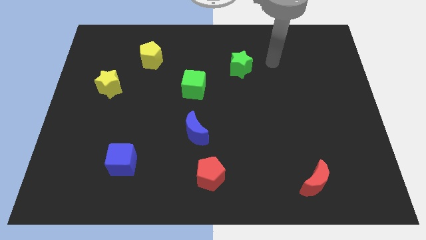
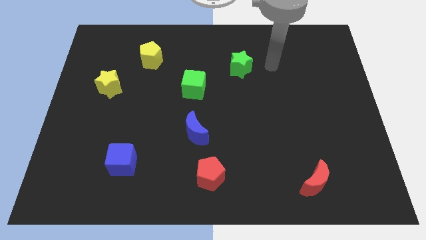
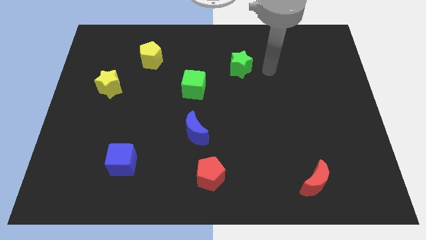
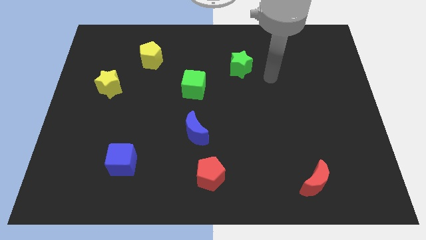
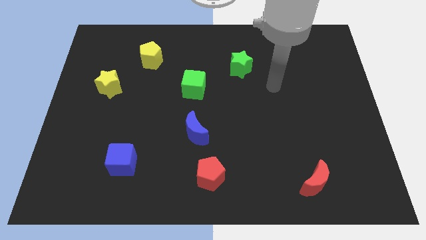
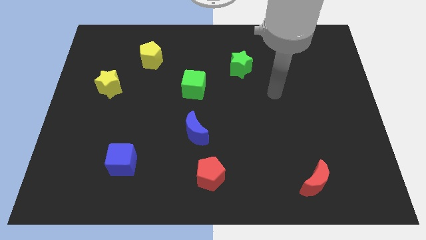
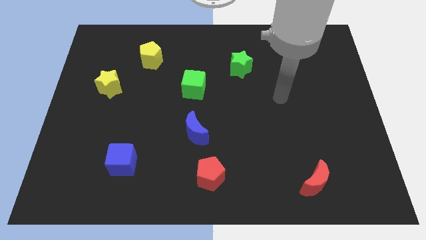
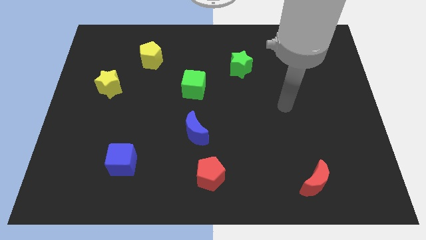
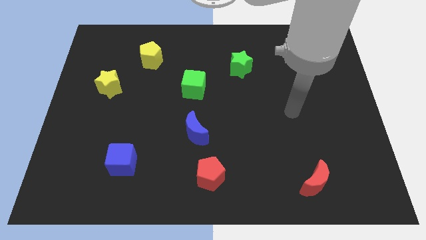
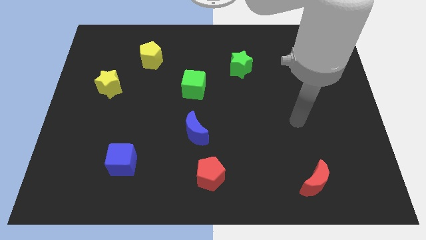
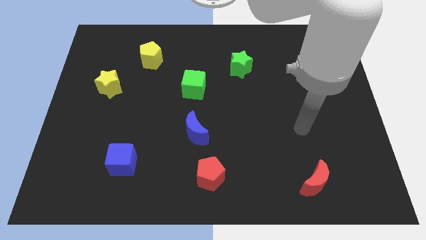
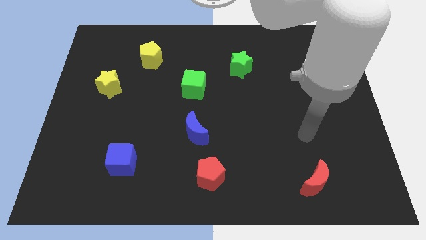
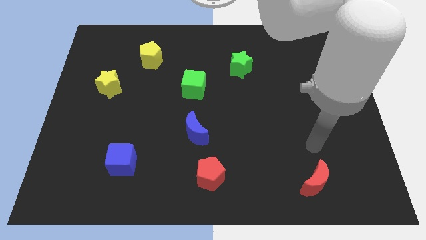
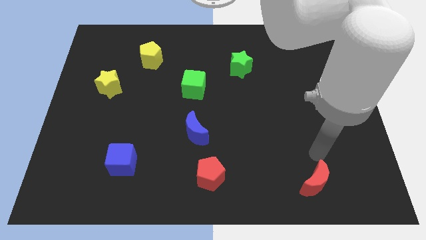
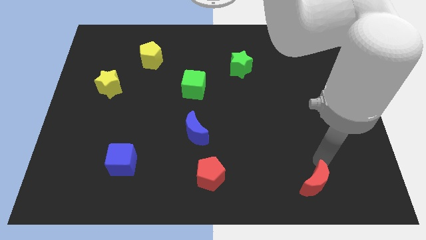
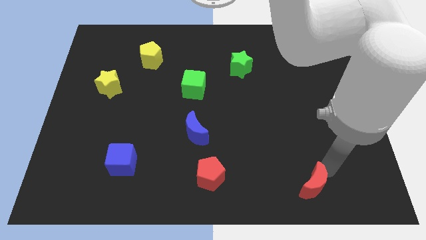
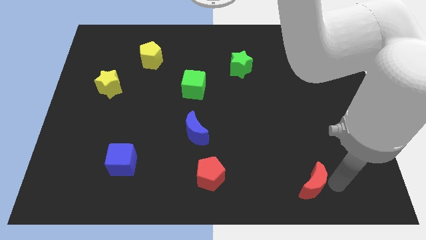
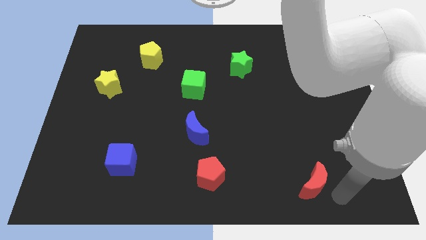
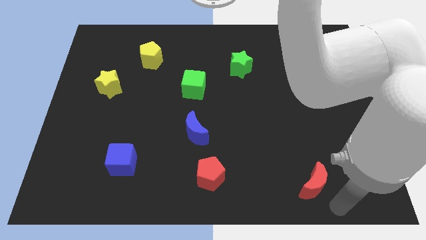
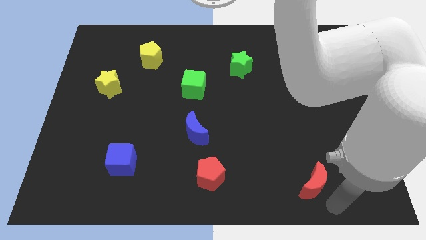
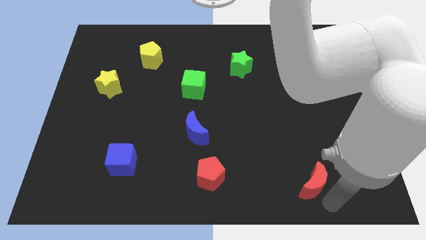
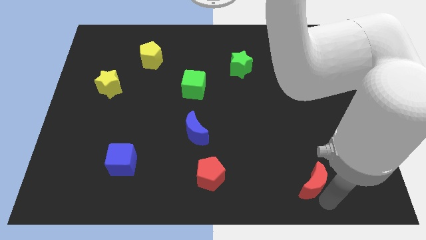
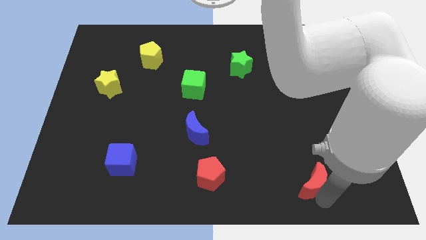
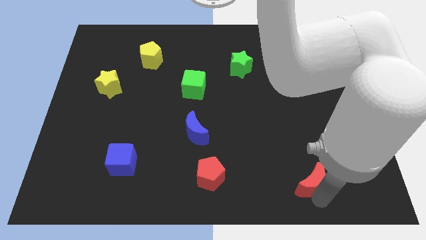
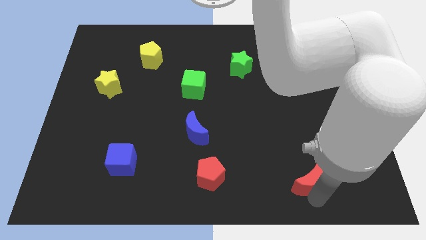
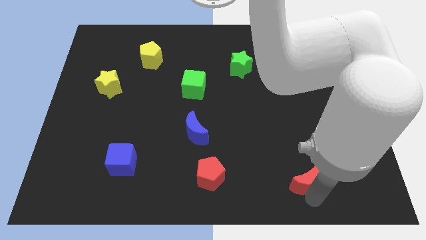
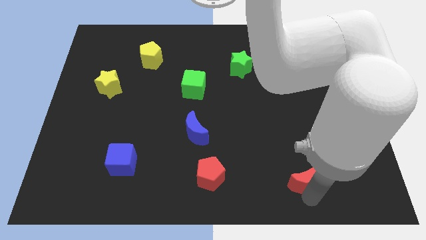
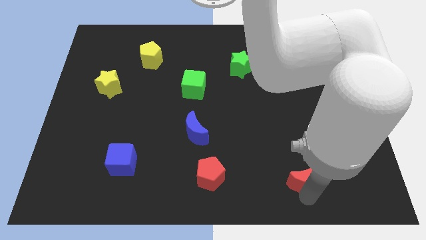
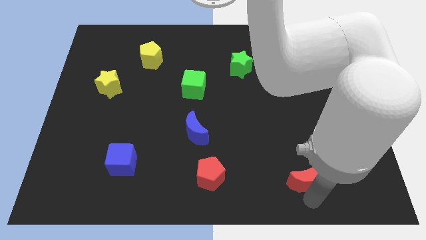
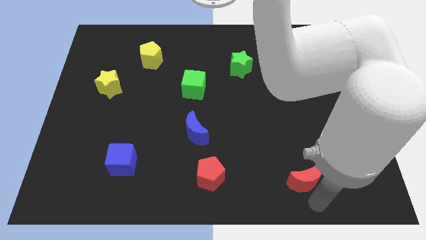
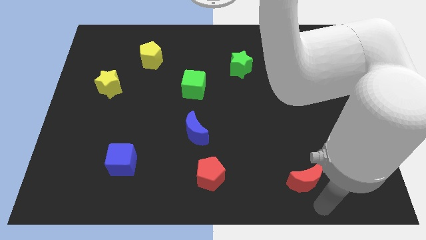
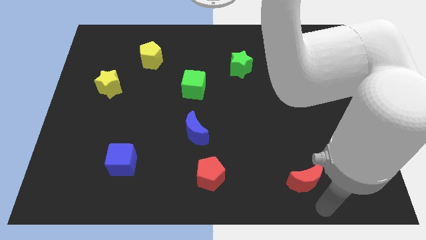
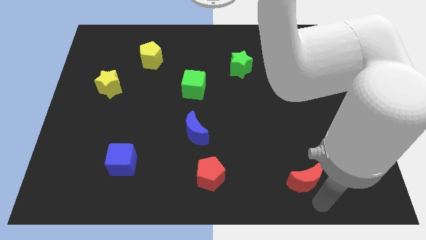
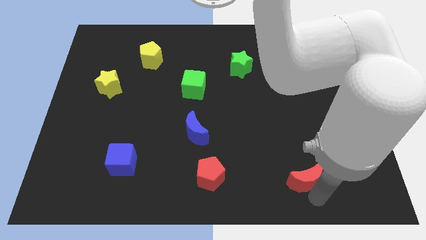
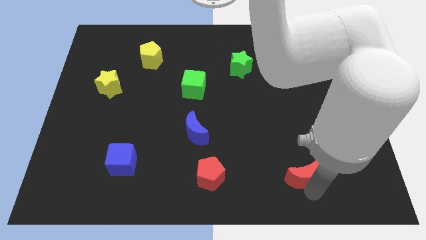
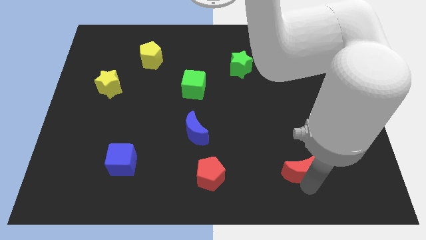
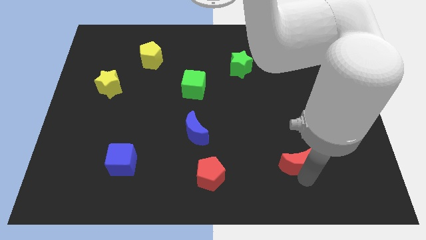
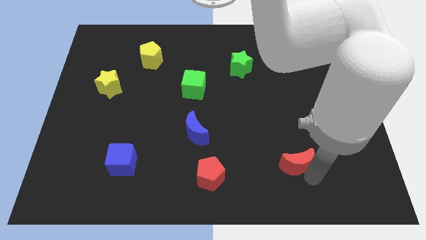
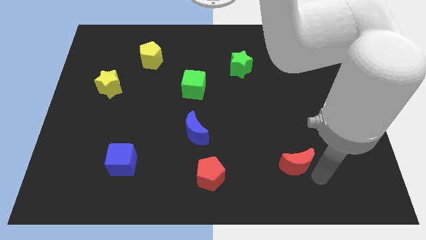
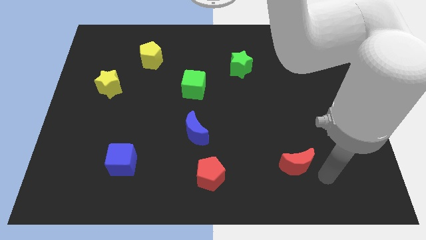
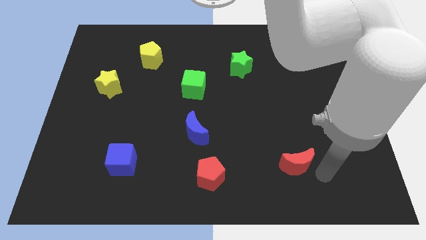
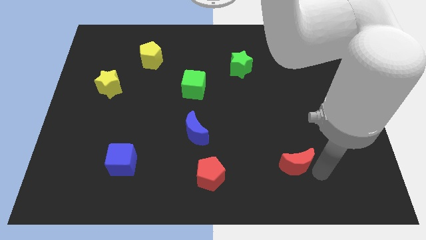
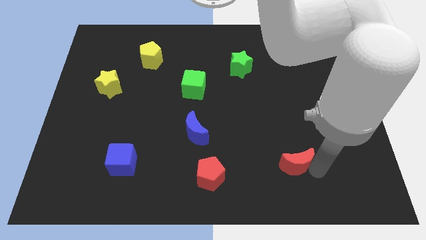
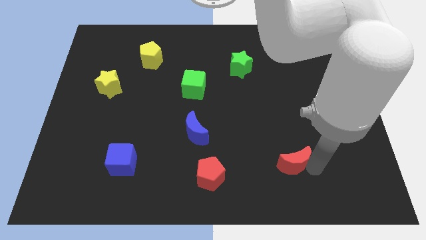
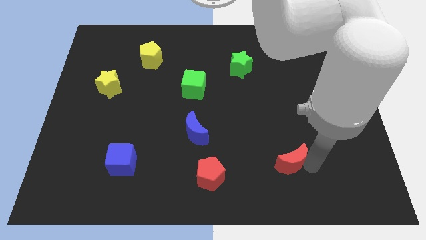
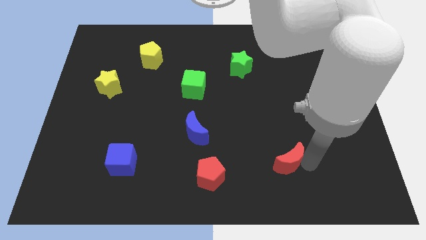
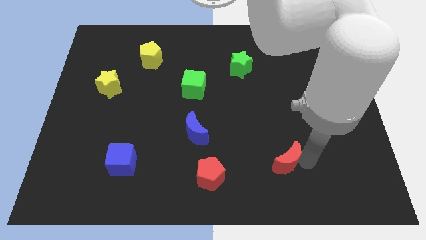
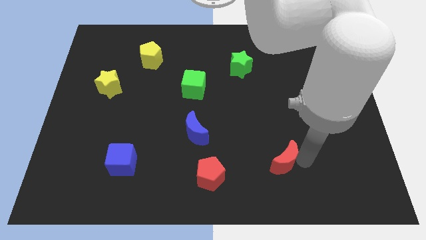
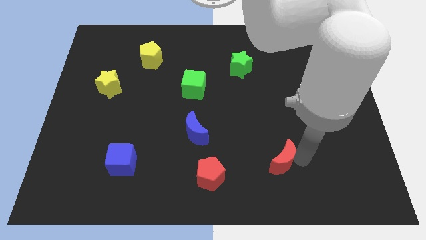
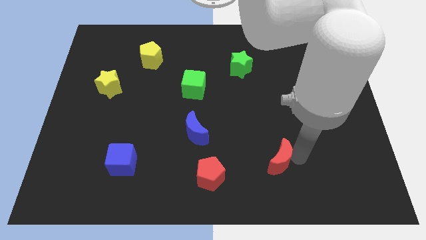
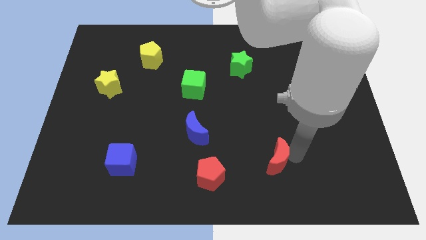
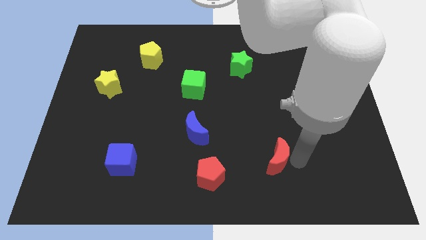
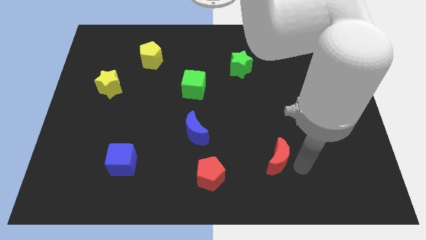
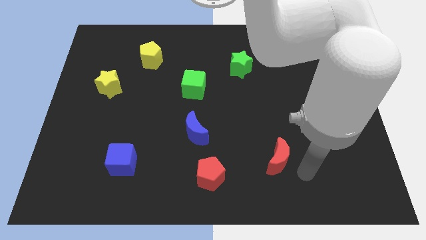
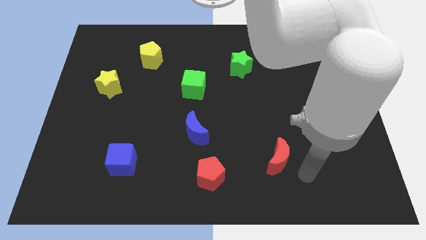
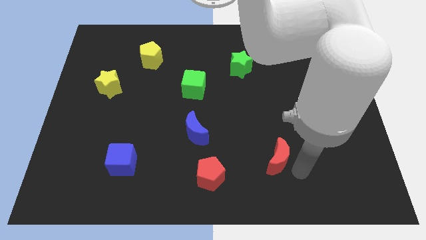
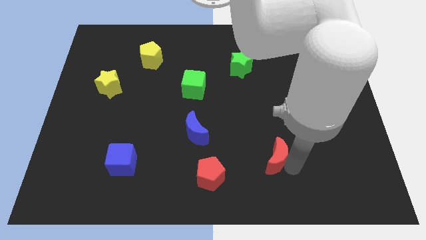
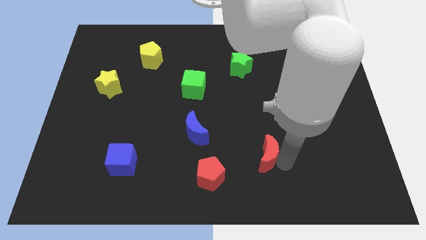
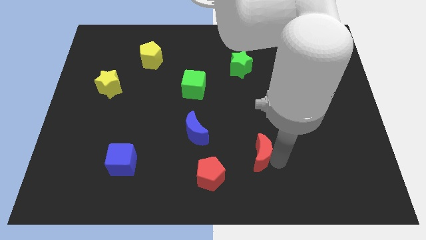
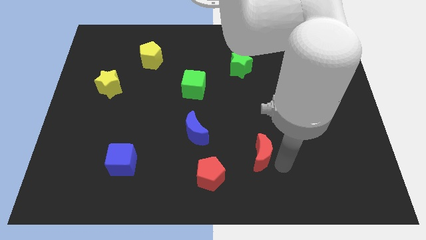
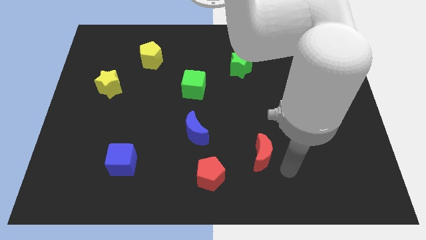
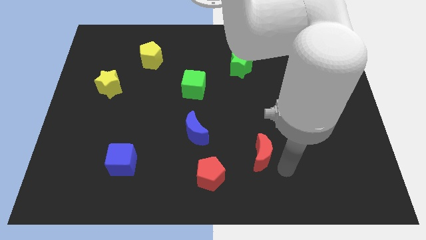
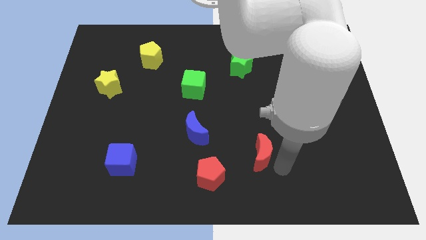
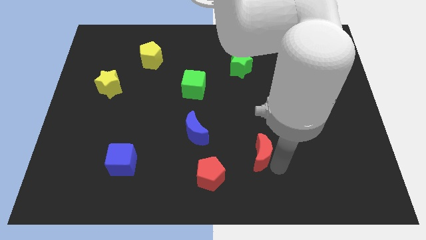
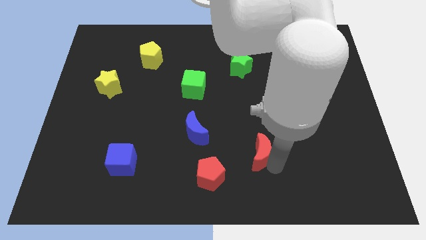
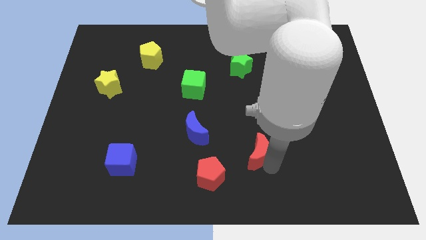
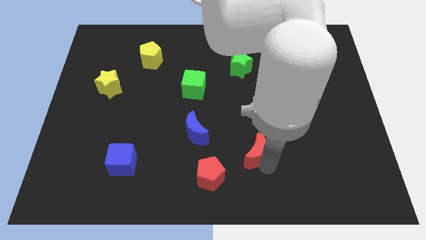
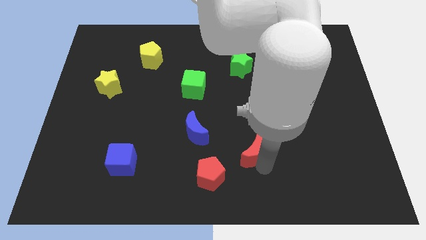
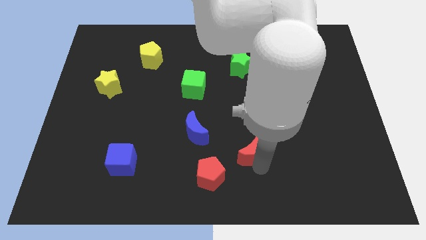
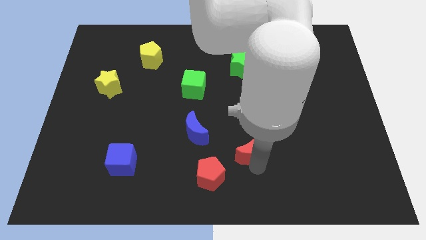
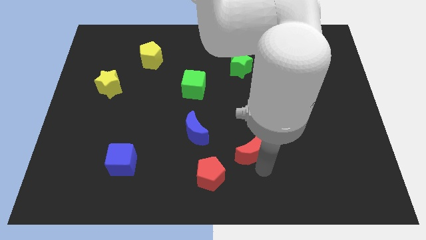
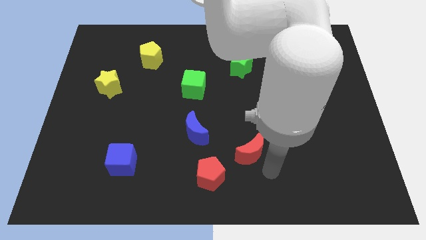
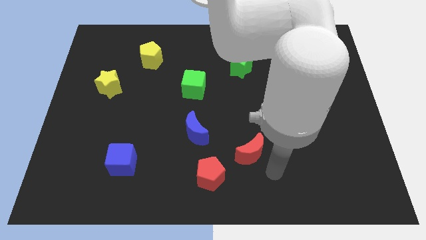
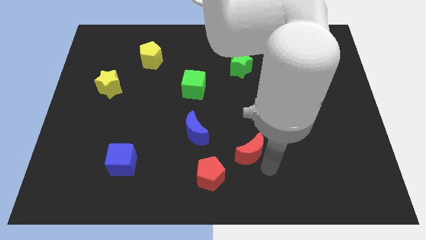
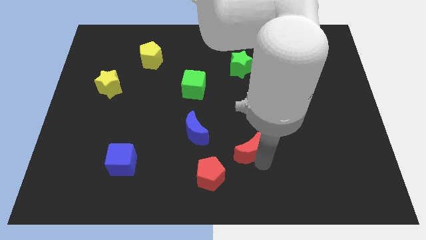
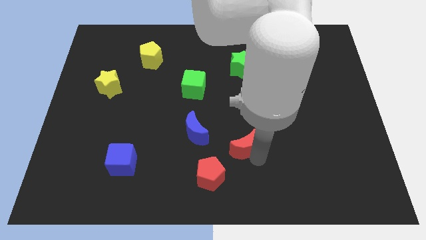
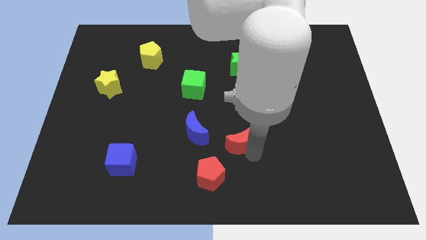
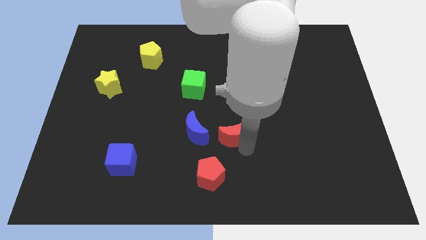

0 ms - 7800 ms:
move the red moon to the center
